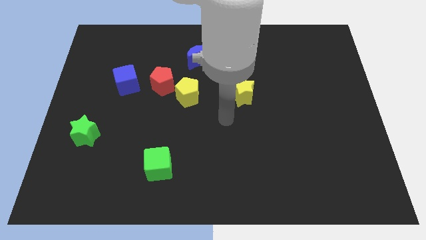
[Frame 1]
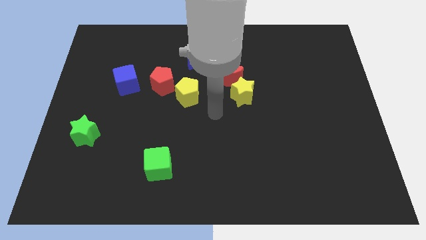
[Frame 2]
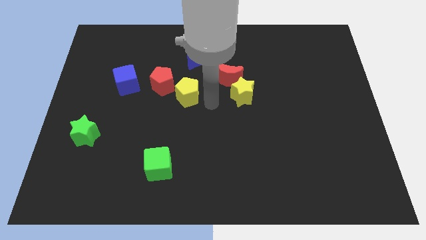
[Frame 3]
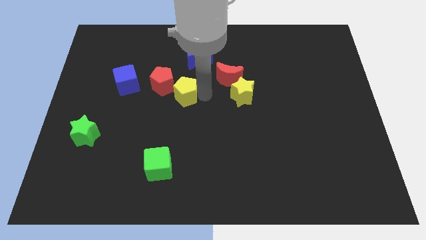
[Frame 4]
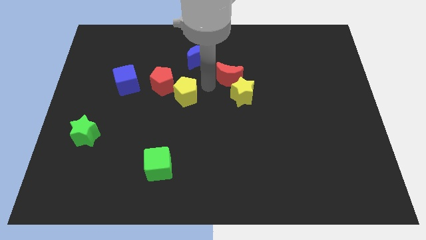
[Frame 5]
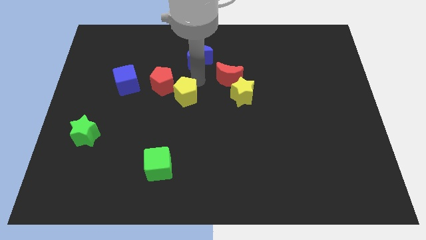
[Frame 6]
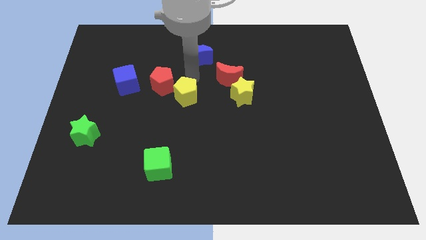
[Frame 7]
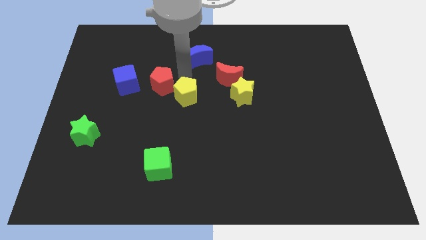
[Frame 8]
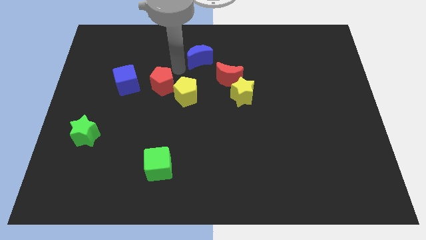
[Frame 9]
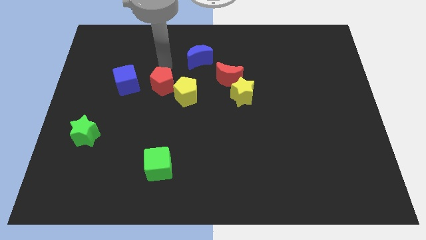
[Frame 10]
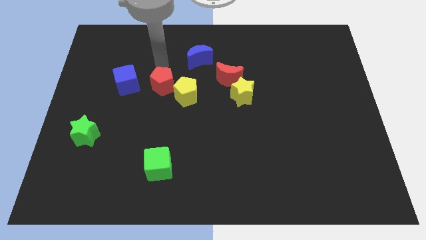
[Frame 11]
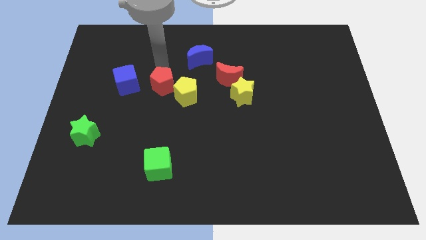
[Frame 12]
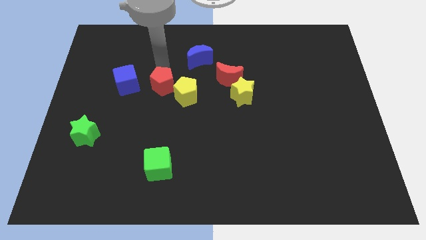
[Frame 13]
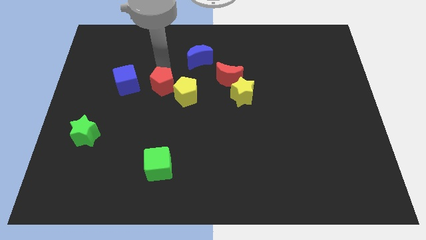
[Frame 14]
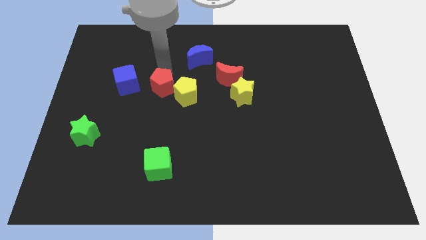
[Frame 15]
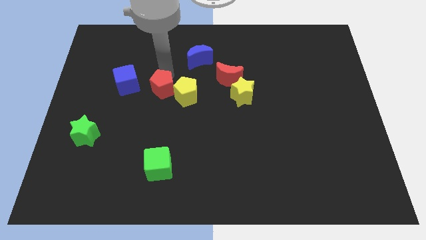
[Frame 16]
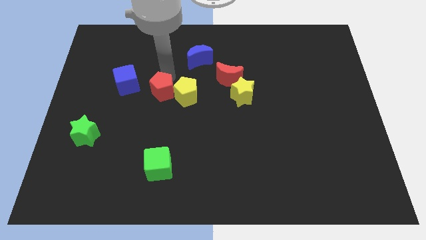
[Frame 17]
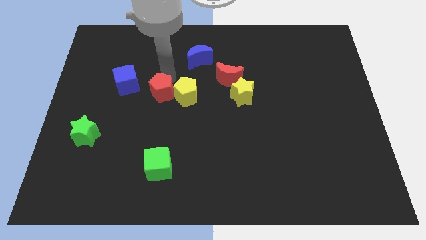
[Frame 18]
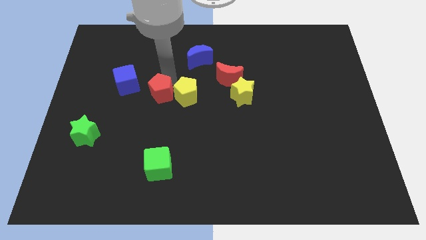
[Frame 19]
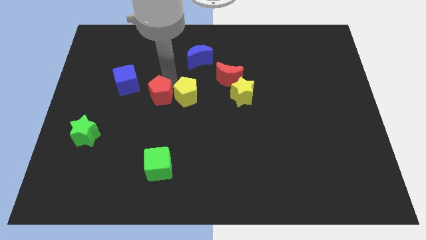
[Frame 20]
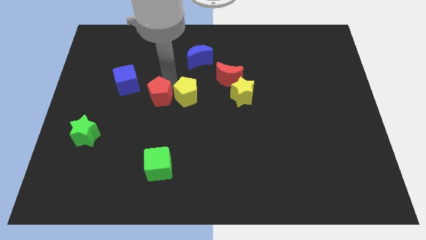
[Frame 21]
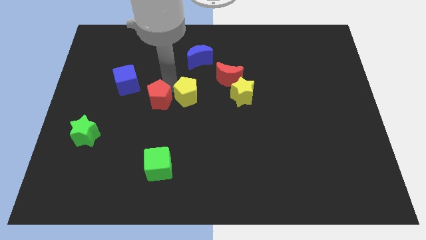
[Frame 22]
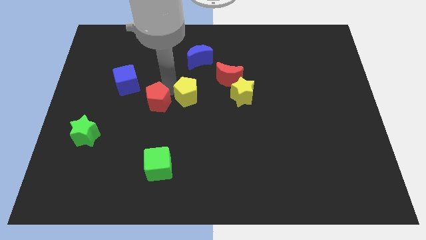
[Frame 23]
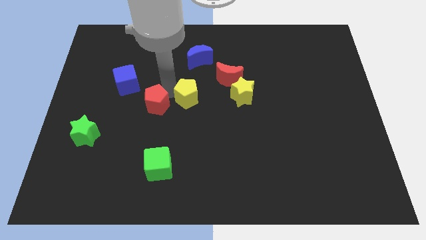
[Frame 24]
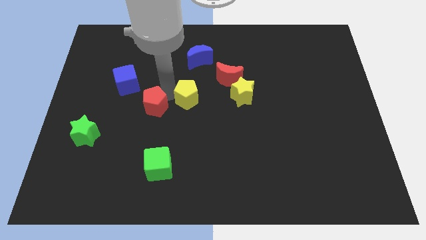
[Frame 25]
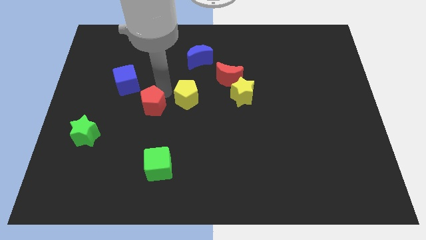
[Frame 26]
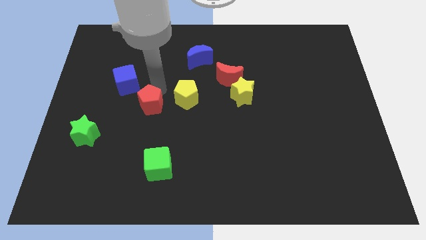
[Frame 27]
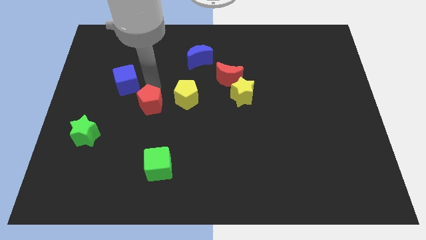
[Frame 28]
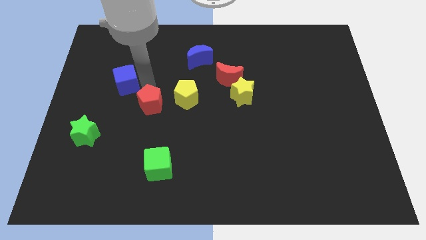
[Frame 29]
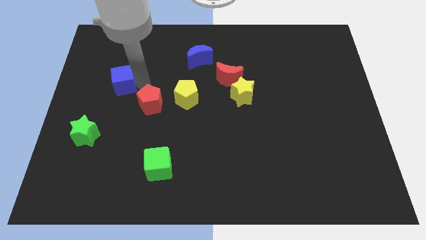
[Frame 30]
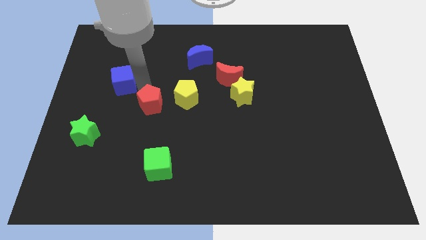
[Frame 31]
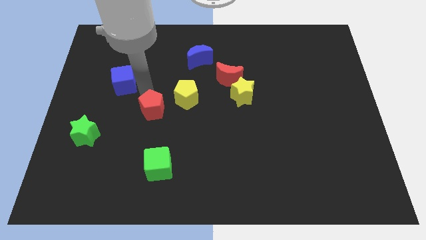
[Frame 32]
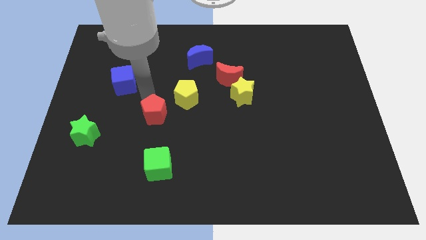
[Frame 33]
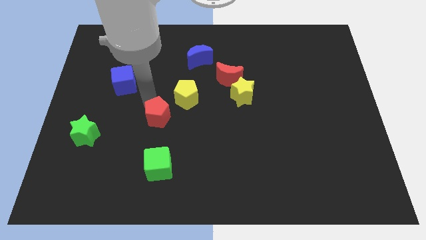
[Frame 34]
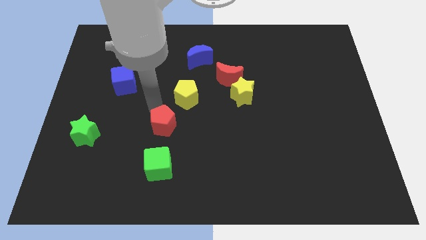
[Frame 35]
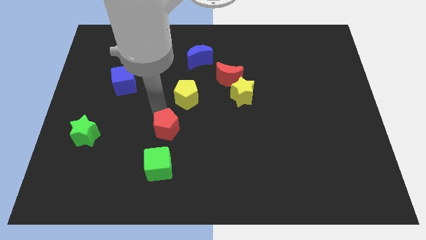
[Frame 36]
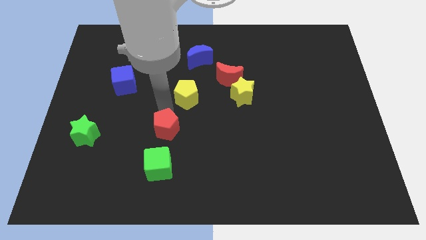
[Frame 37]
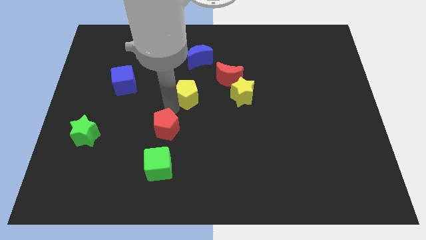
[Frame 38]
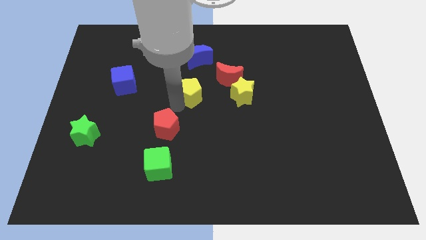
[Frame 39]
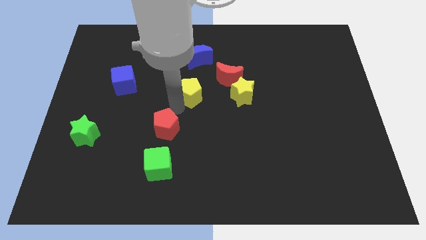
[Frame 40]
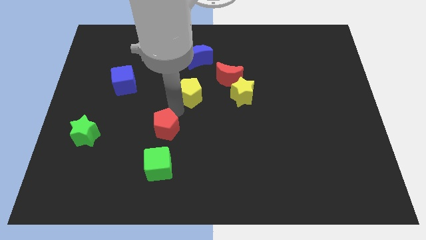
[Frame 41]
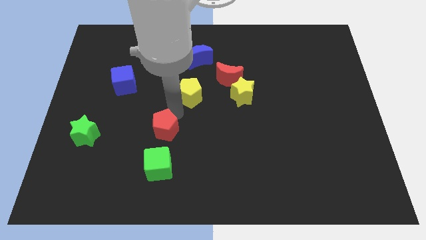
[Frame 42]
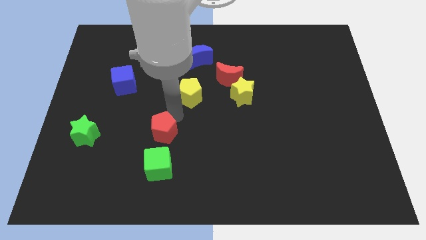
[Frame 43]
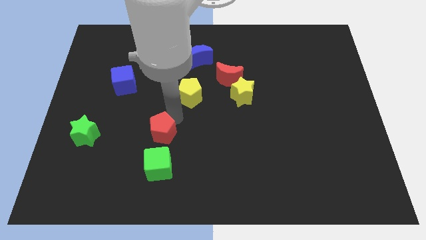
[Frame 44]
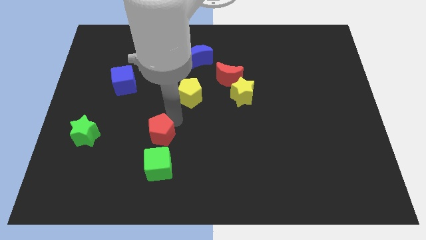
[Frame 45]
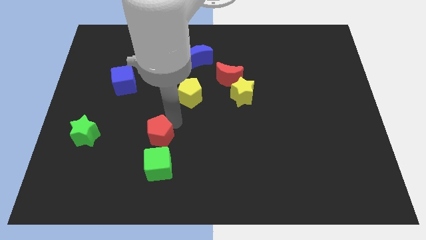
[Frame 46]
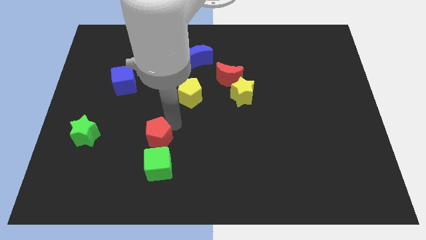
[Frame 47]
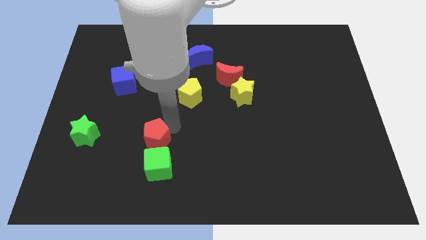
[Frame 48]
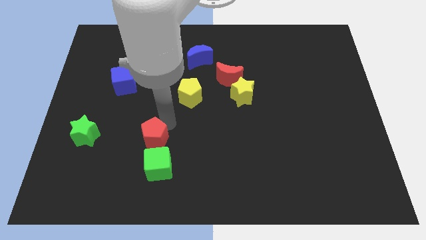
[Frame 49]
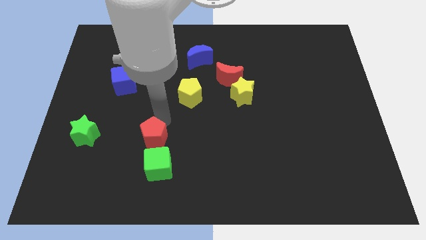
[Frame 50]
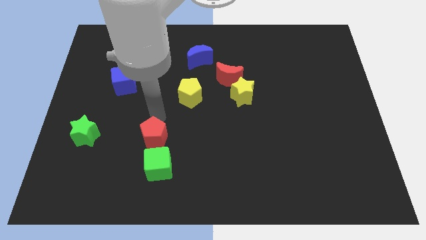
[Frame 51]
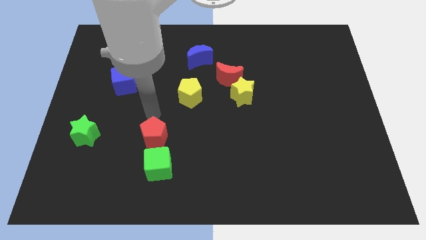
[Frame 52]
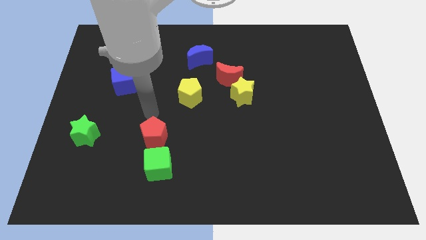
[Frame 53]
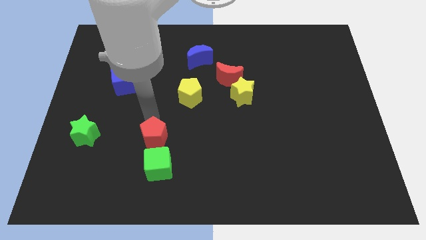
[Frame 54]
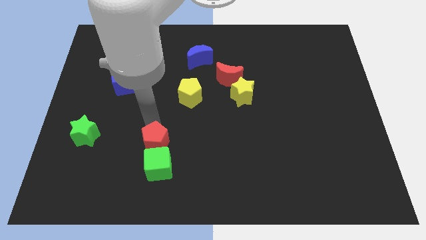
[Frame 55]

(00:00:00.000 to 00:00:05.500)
push the red pentagon next to the green cube

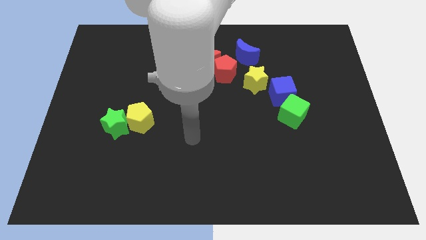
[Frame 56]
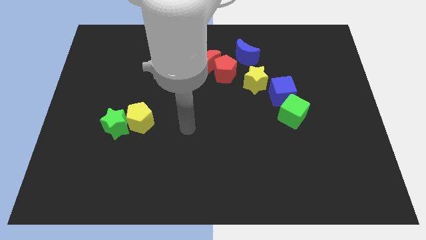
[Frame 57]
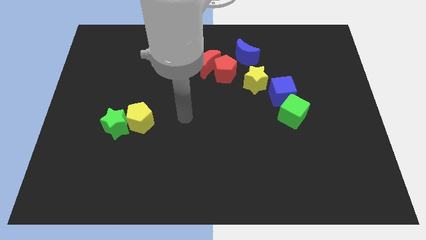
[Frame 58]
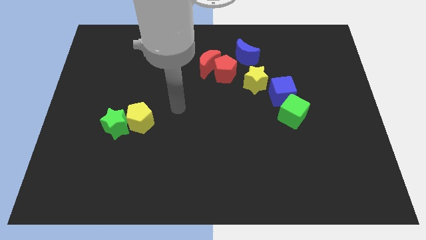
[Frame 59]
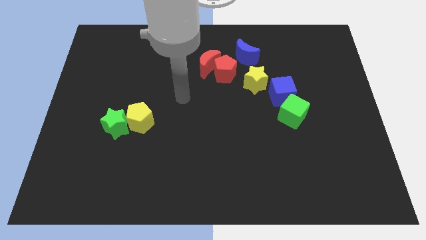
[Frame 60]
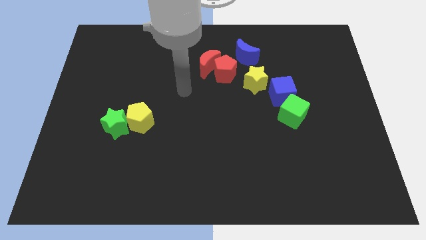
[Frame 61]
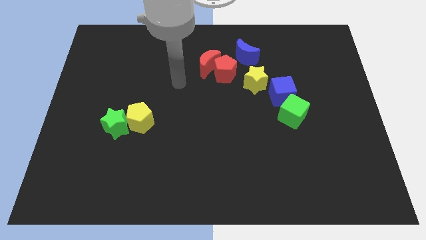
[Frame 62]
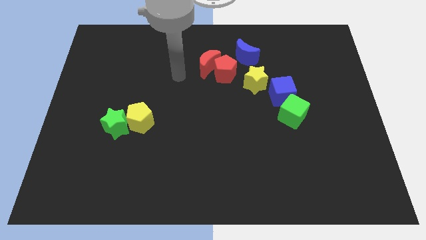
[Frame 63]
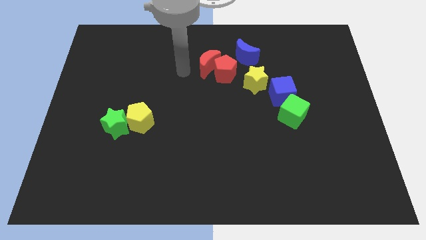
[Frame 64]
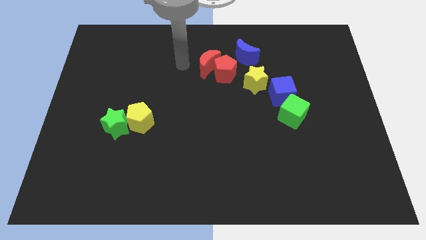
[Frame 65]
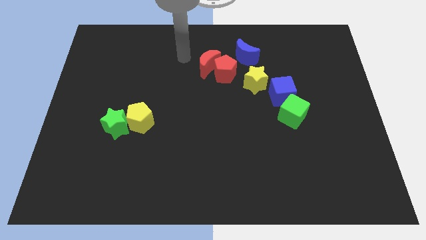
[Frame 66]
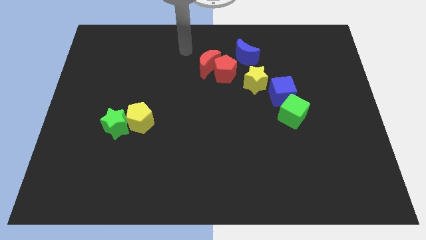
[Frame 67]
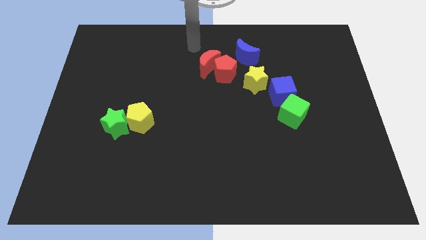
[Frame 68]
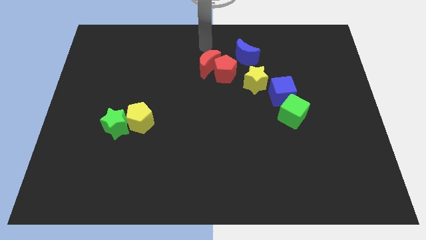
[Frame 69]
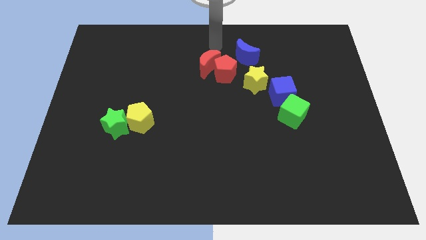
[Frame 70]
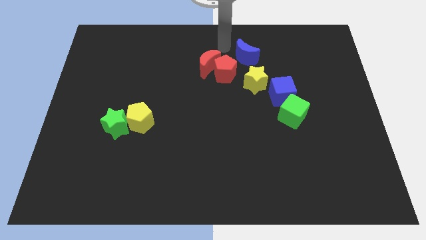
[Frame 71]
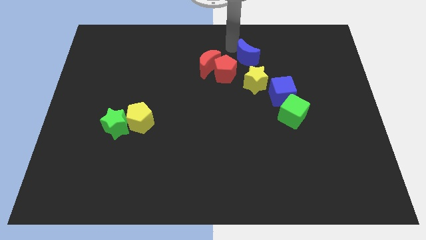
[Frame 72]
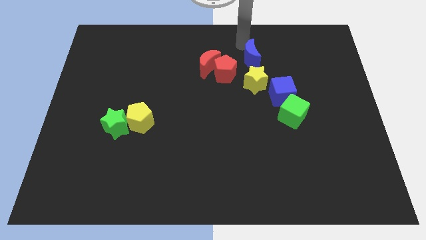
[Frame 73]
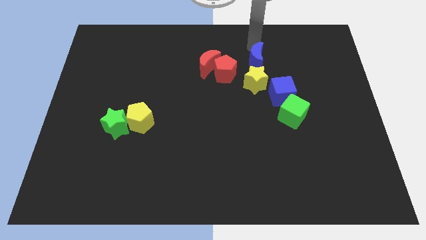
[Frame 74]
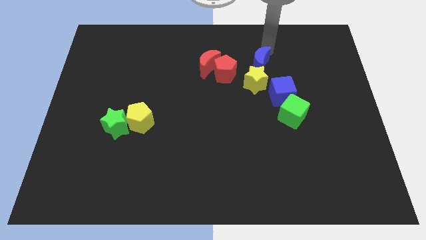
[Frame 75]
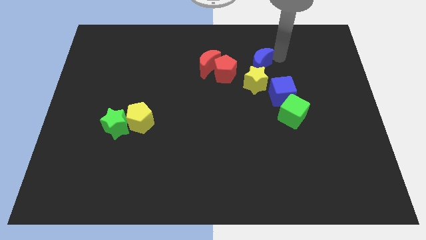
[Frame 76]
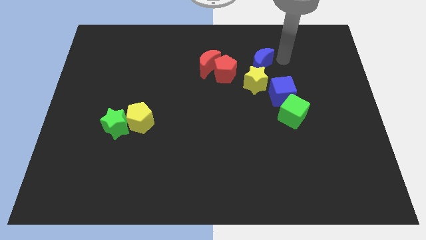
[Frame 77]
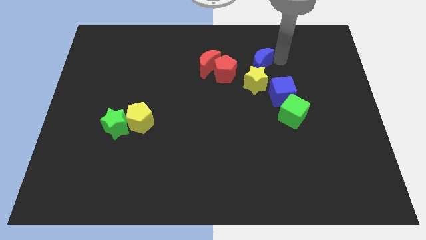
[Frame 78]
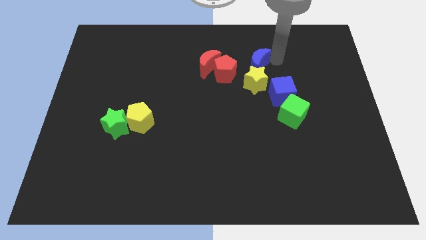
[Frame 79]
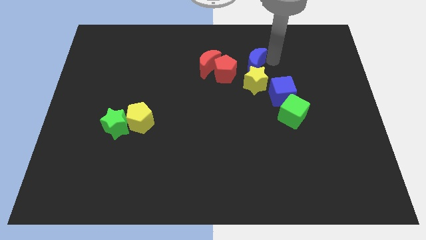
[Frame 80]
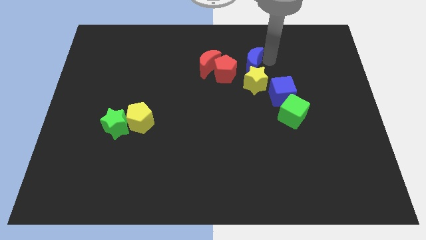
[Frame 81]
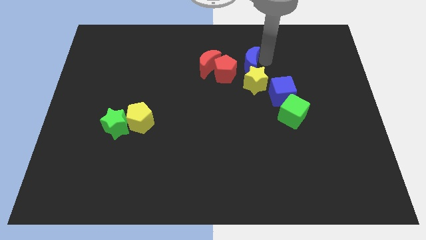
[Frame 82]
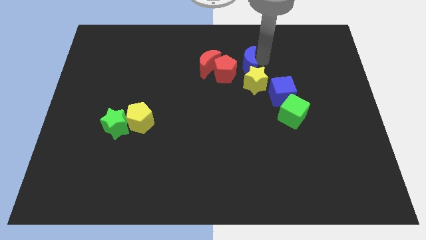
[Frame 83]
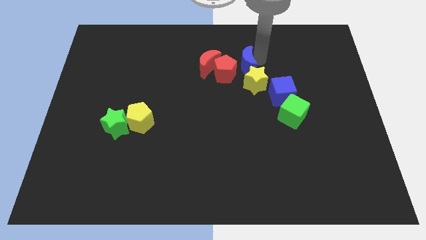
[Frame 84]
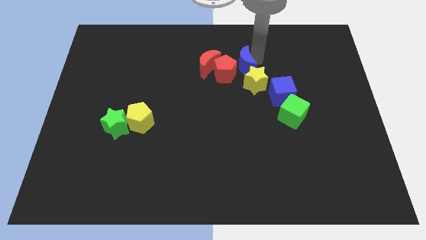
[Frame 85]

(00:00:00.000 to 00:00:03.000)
slide the blue moon close to the red pentagon
